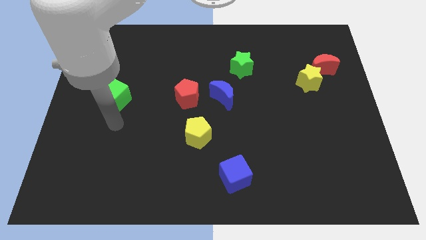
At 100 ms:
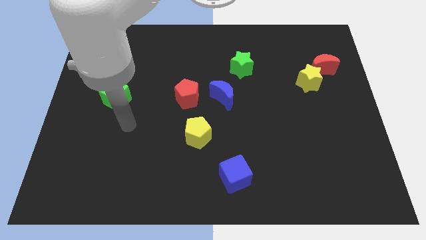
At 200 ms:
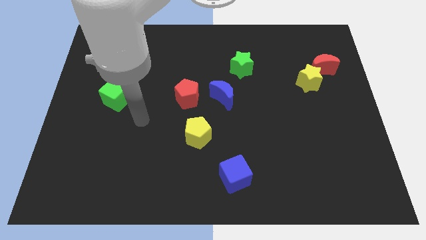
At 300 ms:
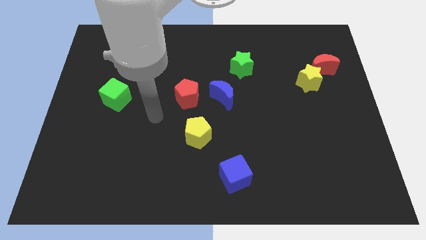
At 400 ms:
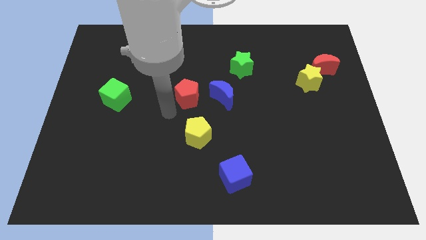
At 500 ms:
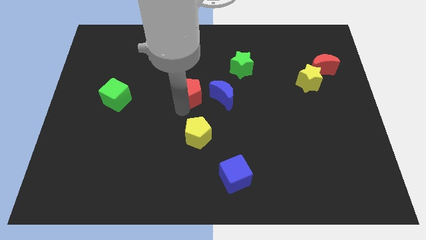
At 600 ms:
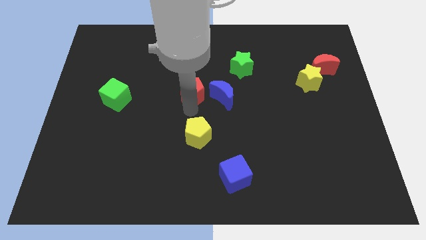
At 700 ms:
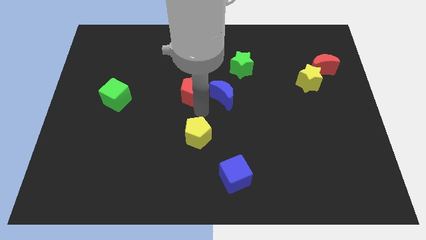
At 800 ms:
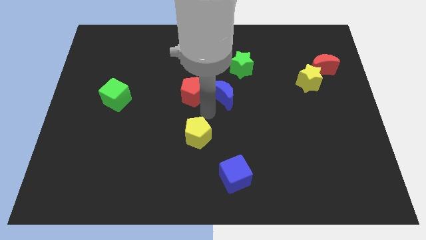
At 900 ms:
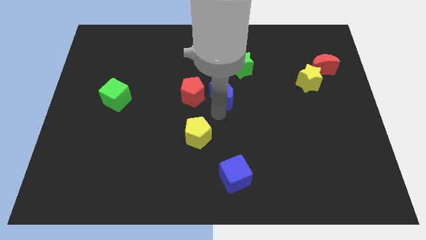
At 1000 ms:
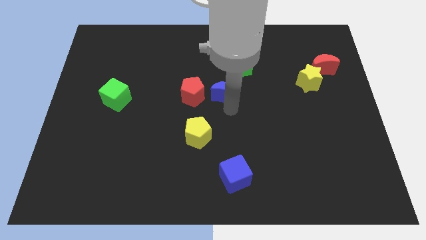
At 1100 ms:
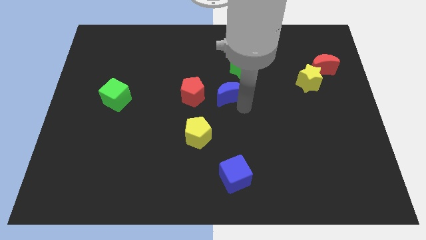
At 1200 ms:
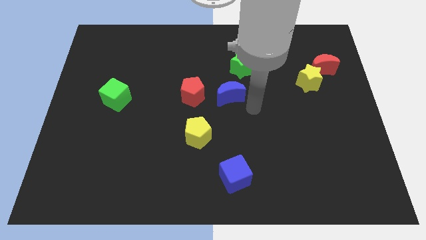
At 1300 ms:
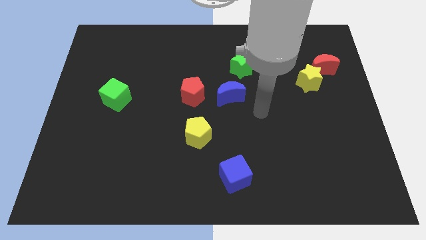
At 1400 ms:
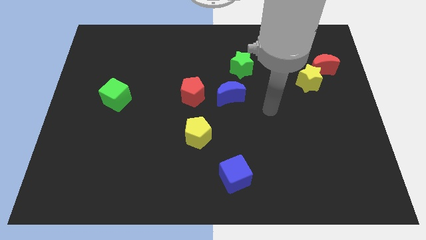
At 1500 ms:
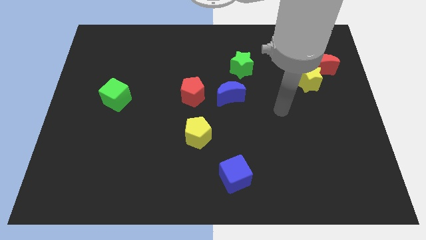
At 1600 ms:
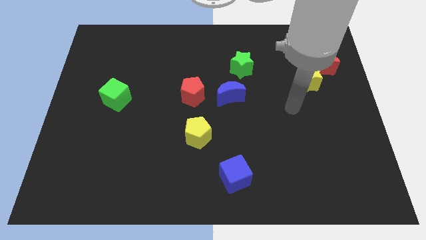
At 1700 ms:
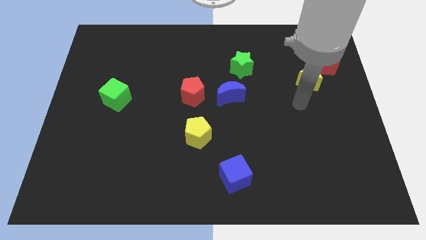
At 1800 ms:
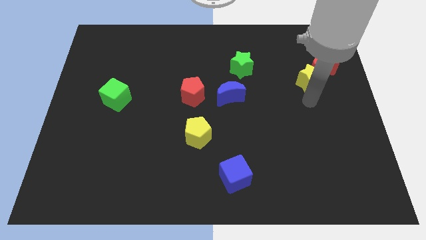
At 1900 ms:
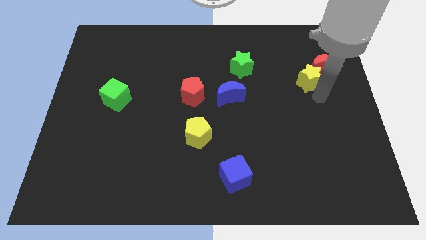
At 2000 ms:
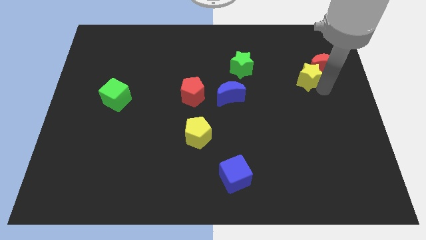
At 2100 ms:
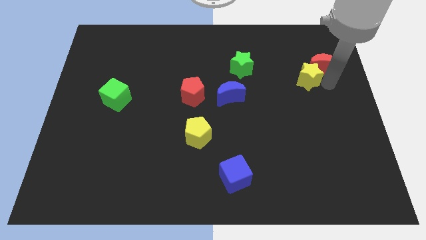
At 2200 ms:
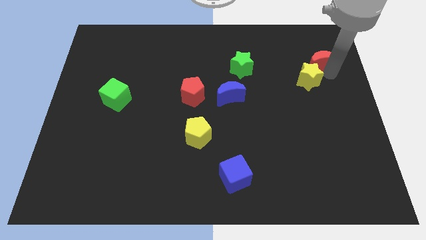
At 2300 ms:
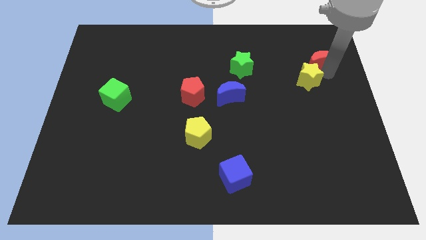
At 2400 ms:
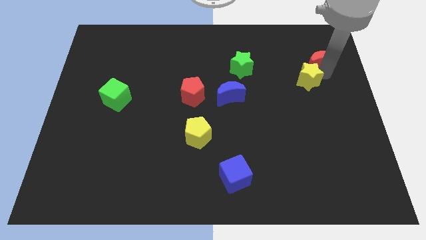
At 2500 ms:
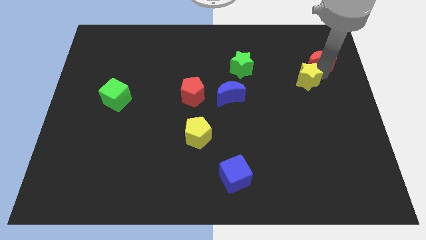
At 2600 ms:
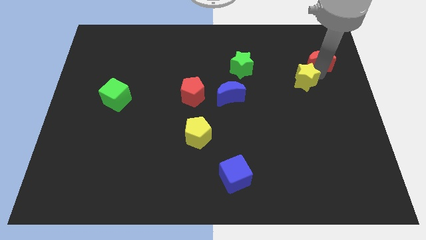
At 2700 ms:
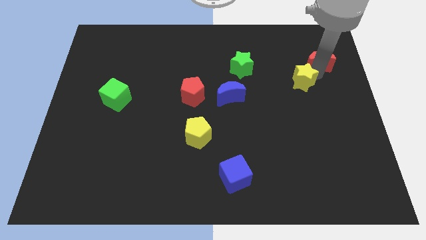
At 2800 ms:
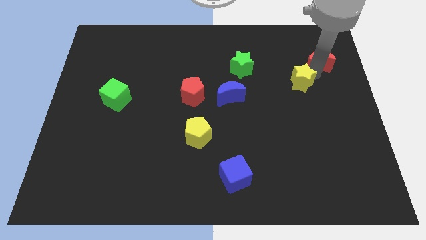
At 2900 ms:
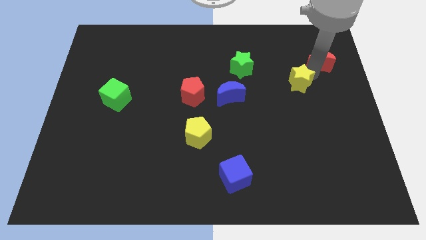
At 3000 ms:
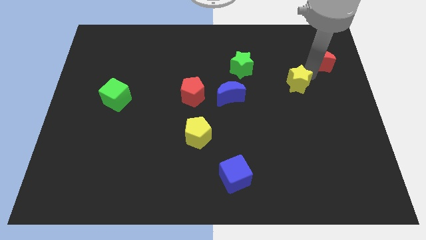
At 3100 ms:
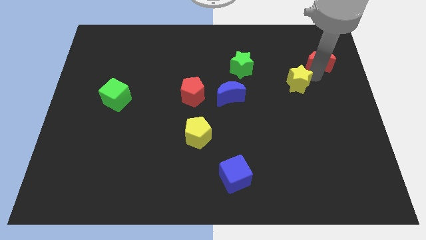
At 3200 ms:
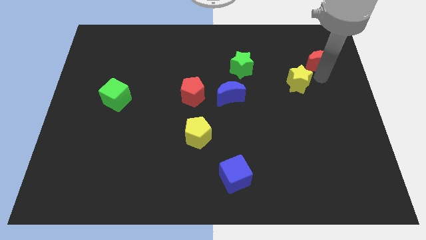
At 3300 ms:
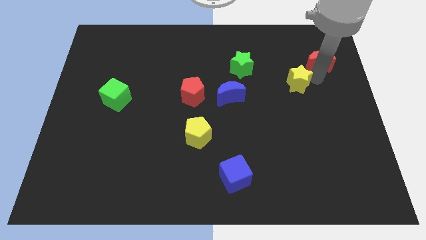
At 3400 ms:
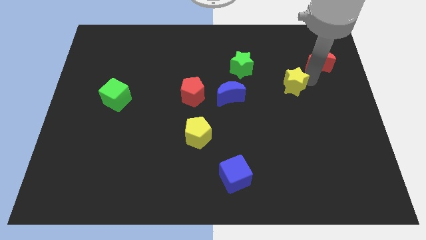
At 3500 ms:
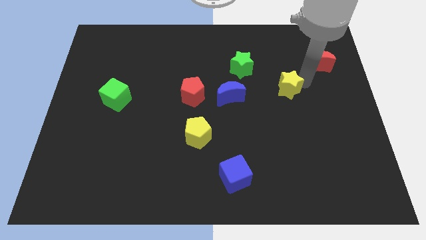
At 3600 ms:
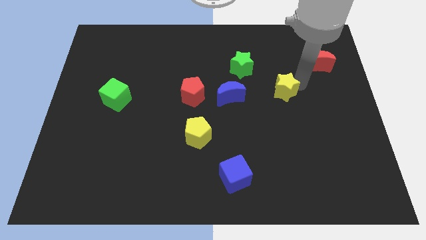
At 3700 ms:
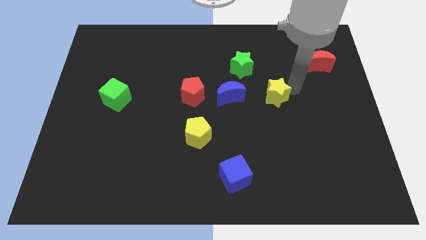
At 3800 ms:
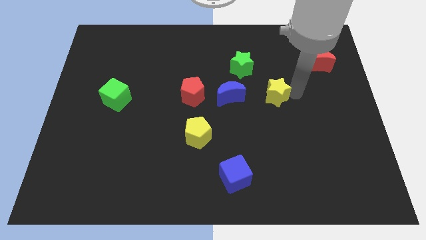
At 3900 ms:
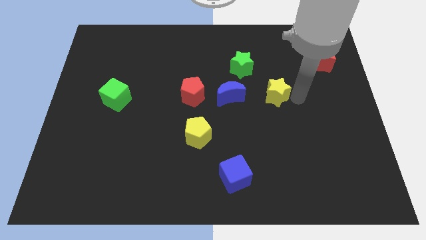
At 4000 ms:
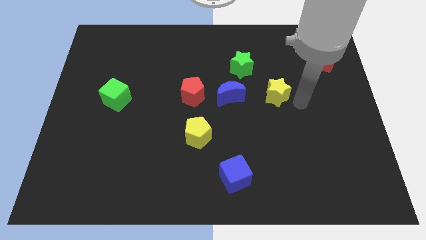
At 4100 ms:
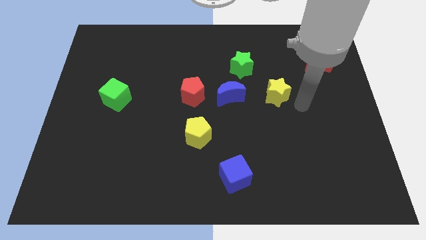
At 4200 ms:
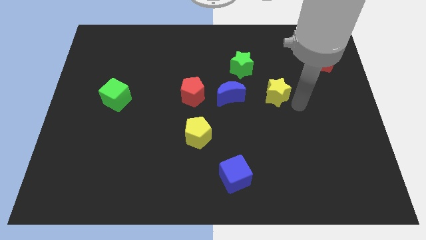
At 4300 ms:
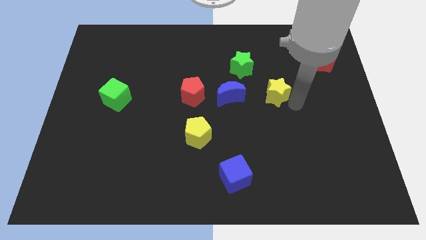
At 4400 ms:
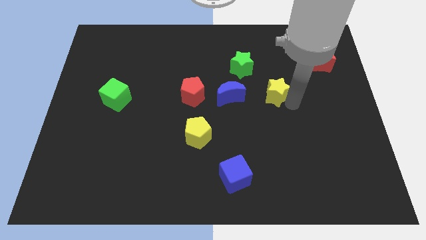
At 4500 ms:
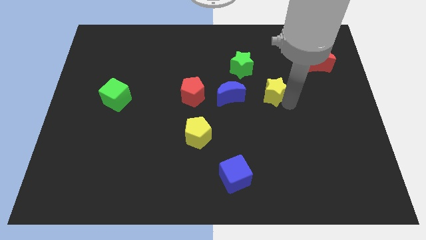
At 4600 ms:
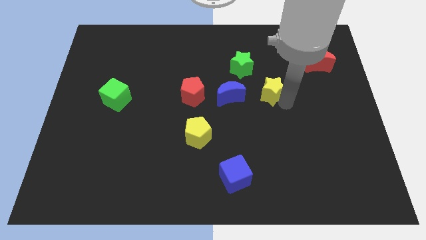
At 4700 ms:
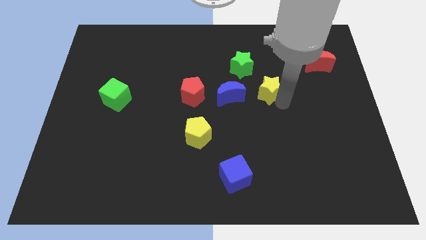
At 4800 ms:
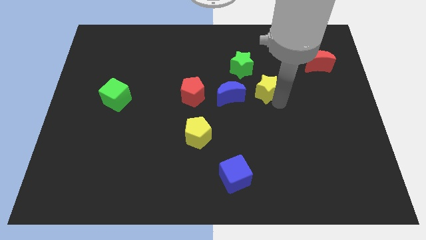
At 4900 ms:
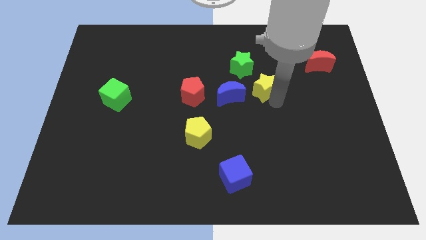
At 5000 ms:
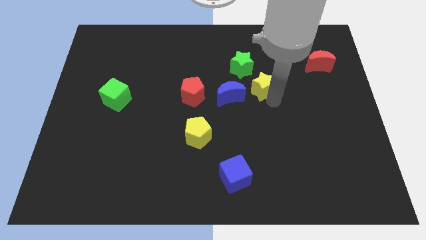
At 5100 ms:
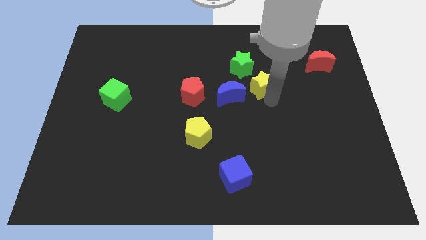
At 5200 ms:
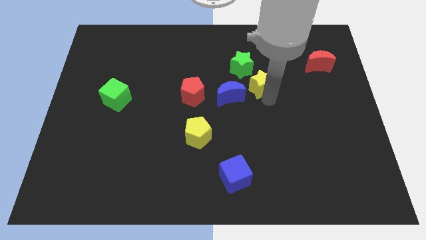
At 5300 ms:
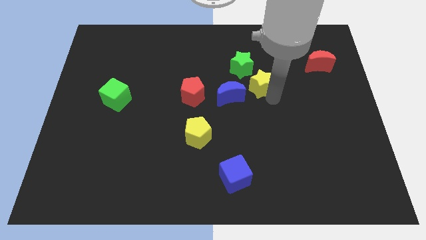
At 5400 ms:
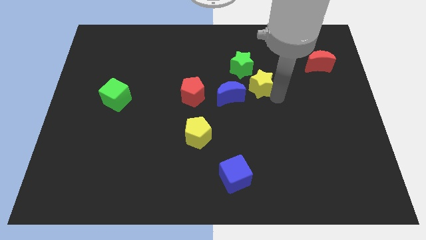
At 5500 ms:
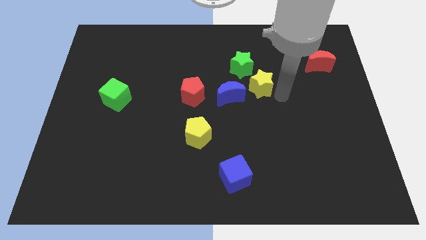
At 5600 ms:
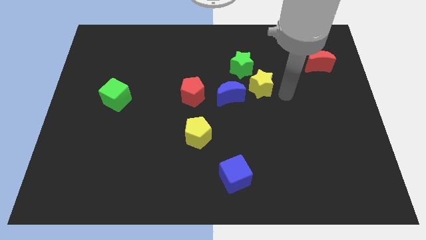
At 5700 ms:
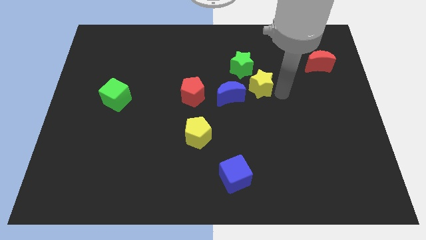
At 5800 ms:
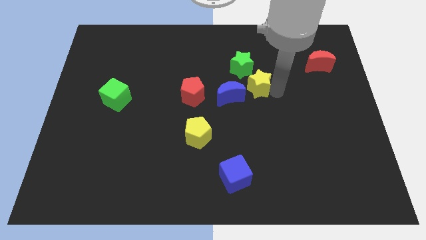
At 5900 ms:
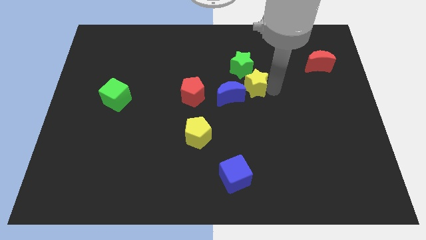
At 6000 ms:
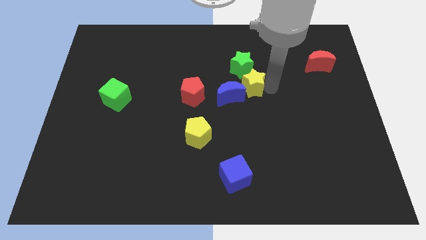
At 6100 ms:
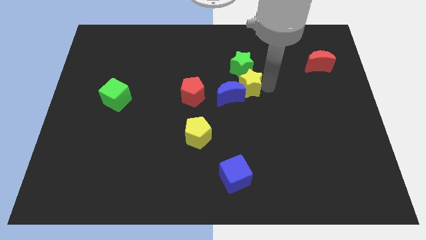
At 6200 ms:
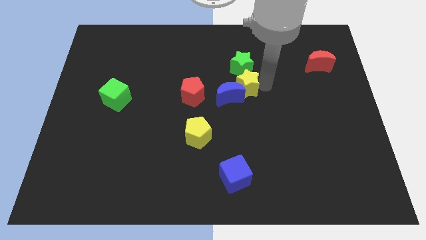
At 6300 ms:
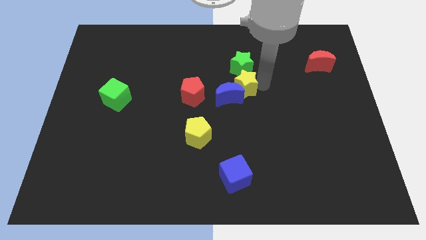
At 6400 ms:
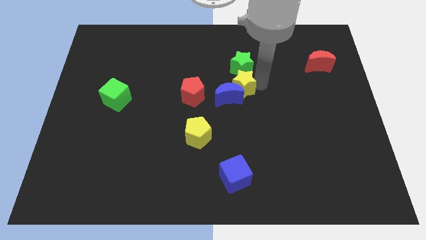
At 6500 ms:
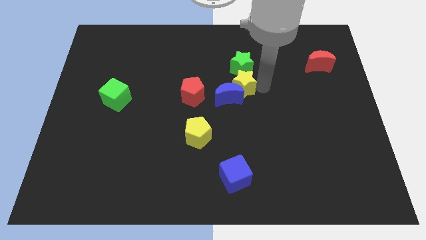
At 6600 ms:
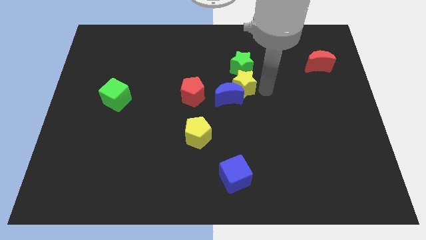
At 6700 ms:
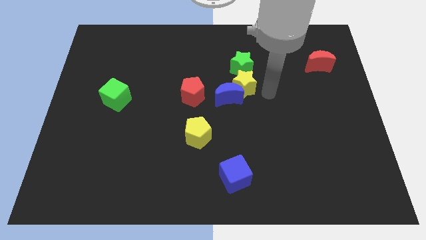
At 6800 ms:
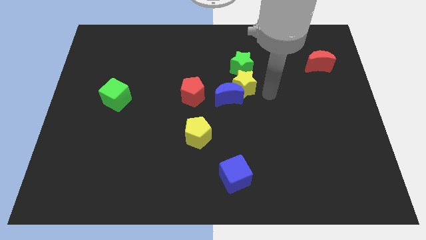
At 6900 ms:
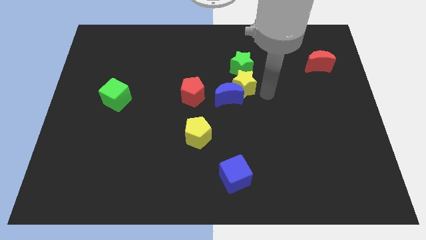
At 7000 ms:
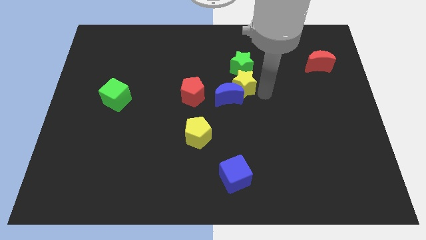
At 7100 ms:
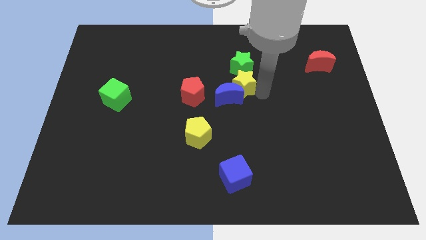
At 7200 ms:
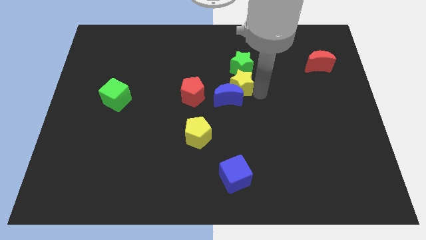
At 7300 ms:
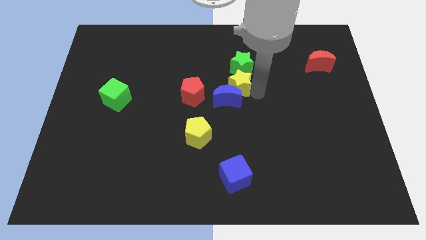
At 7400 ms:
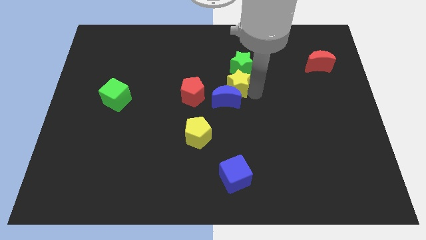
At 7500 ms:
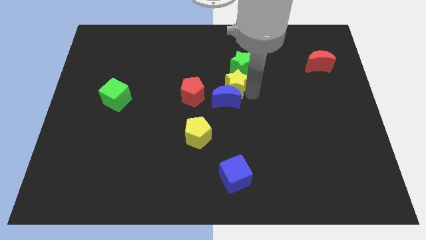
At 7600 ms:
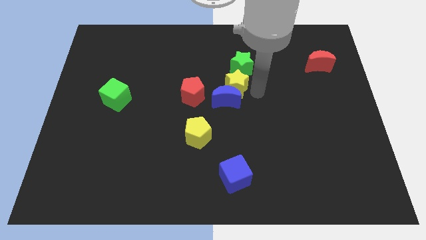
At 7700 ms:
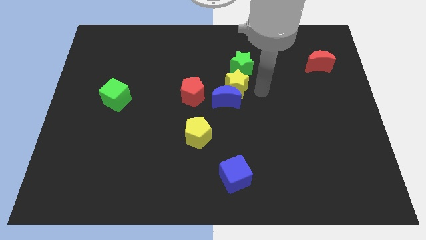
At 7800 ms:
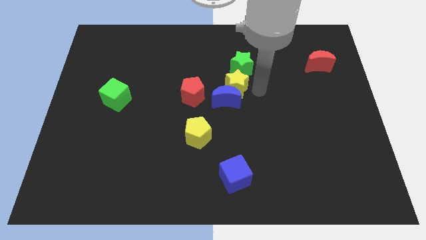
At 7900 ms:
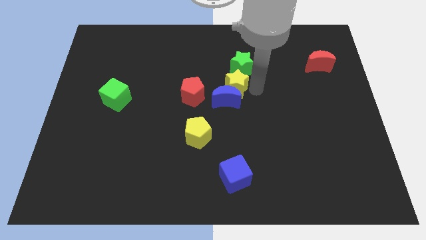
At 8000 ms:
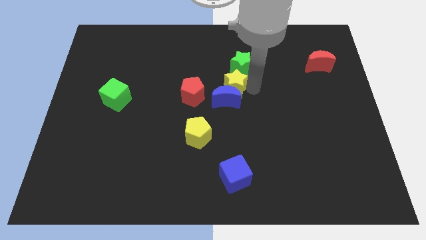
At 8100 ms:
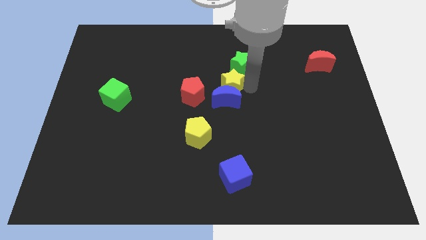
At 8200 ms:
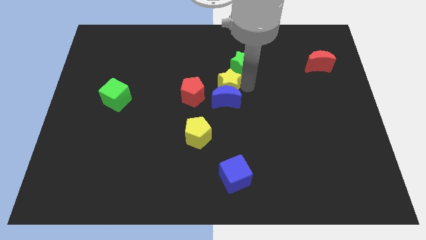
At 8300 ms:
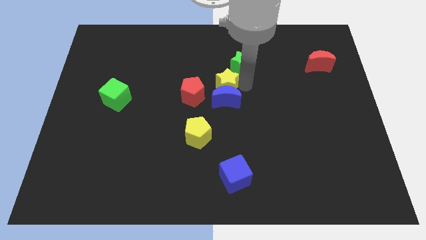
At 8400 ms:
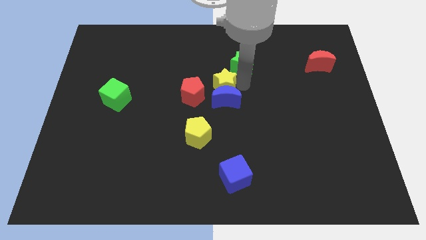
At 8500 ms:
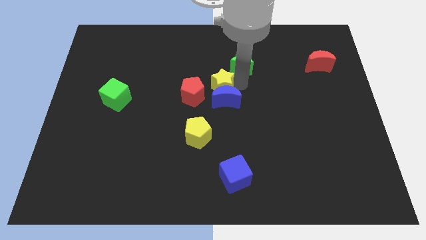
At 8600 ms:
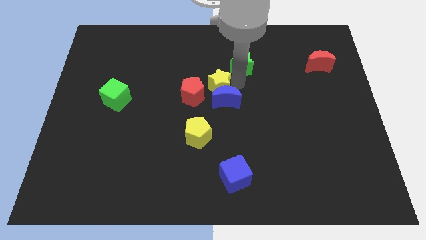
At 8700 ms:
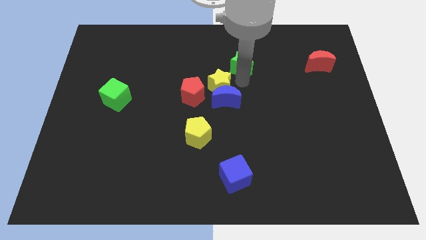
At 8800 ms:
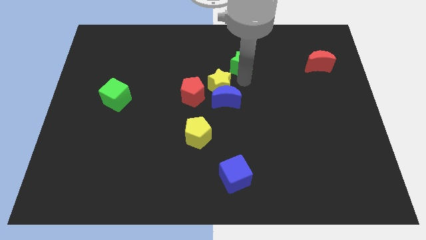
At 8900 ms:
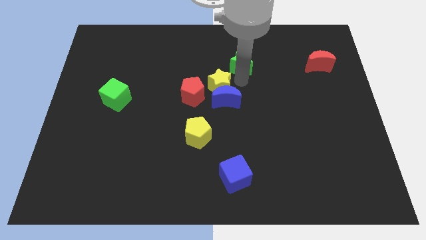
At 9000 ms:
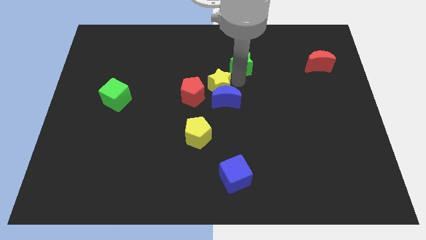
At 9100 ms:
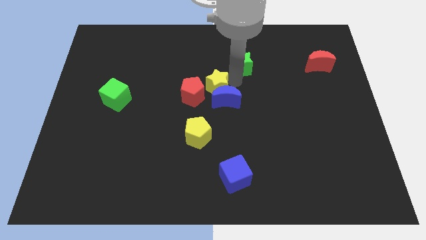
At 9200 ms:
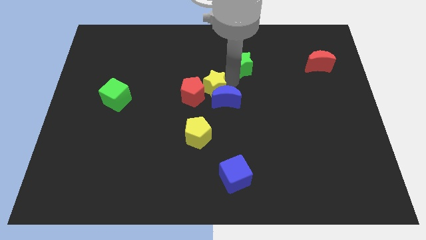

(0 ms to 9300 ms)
push the yellow star close to the red pentagon
